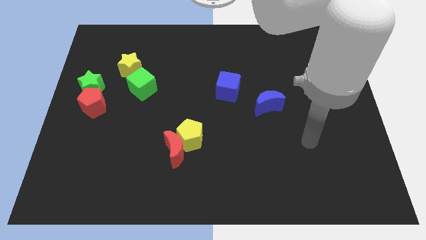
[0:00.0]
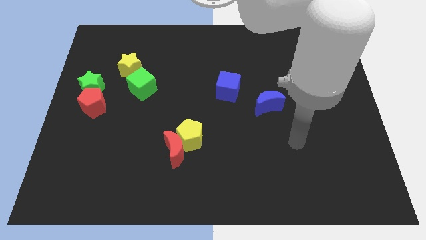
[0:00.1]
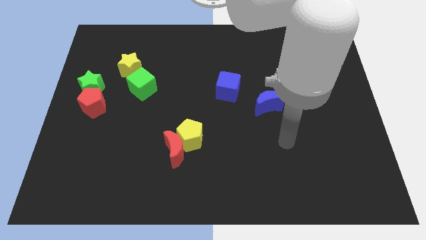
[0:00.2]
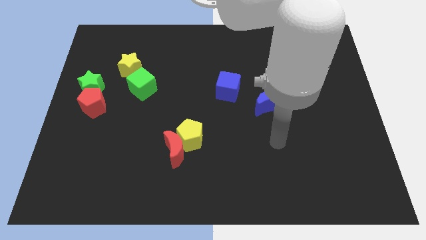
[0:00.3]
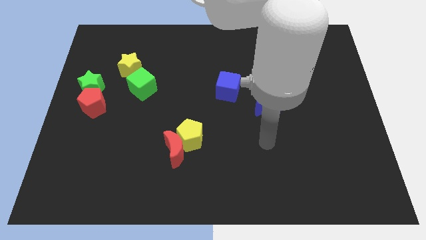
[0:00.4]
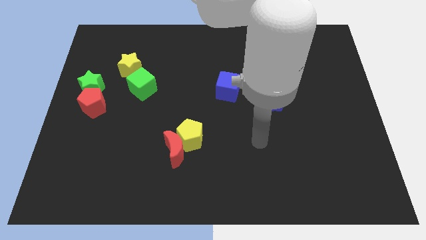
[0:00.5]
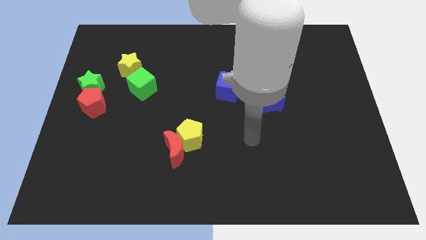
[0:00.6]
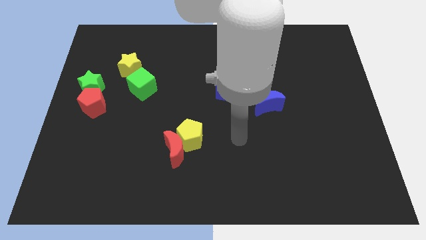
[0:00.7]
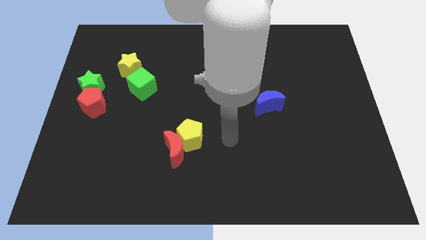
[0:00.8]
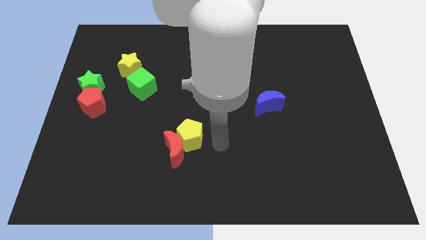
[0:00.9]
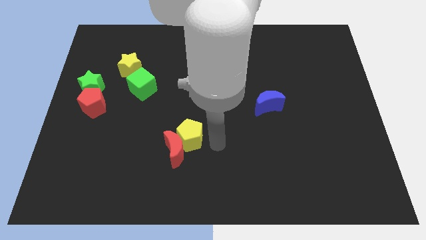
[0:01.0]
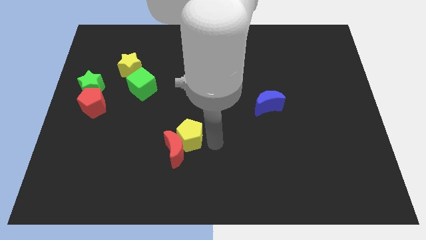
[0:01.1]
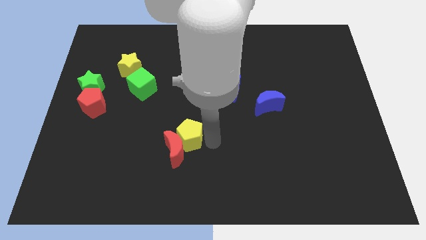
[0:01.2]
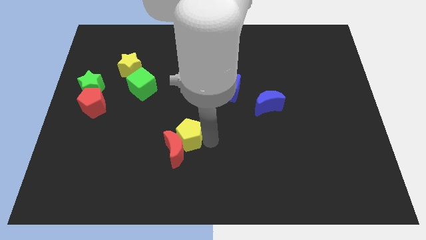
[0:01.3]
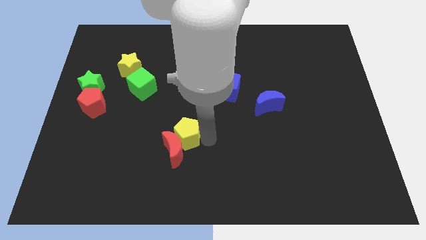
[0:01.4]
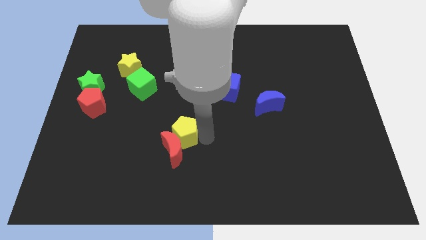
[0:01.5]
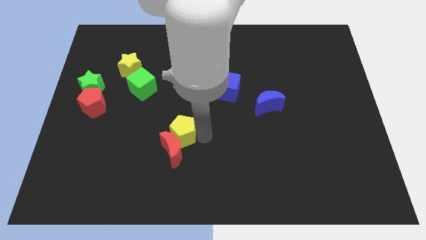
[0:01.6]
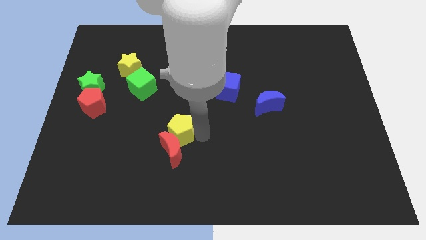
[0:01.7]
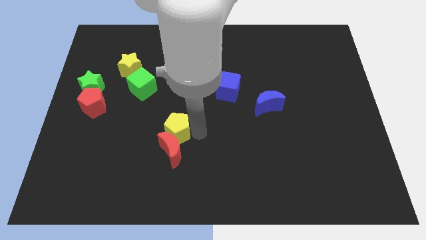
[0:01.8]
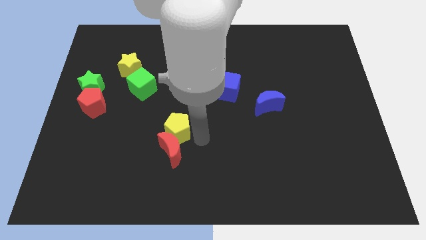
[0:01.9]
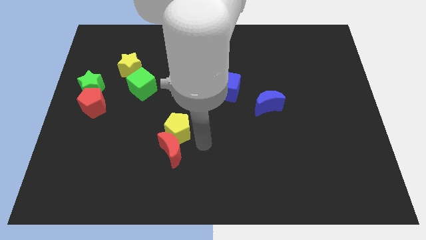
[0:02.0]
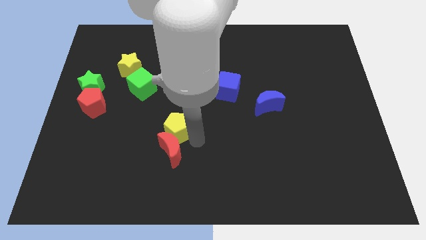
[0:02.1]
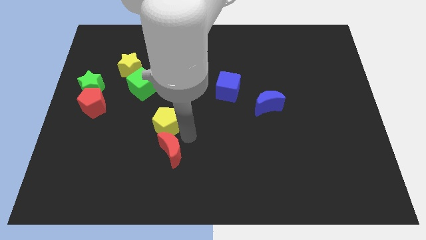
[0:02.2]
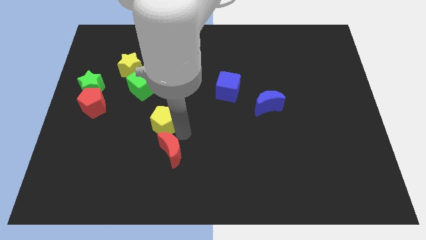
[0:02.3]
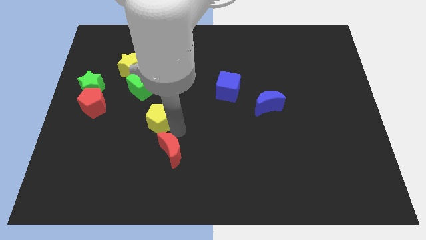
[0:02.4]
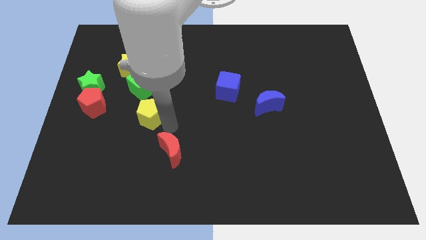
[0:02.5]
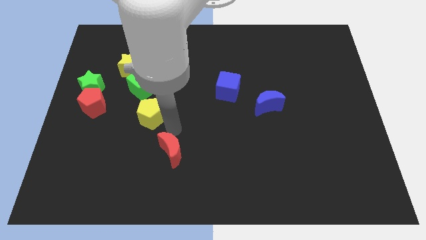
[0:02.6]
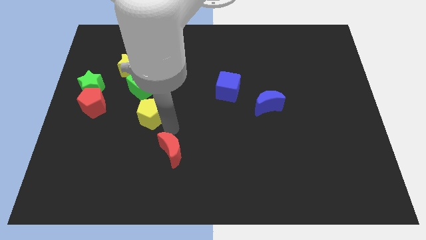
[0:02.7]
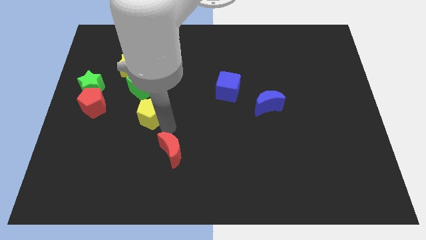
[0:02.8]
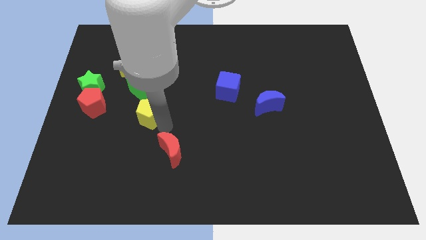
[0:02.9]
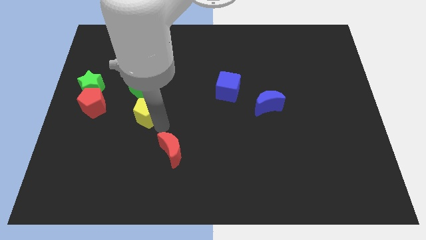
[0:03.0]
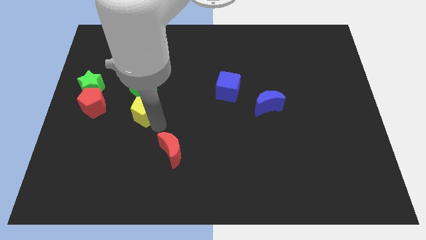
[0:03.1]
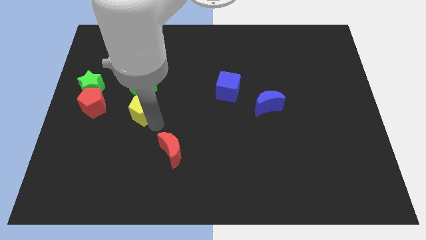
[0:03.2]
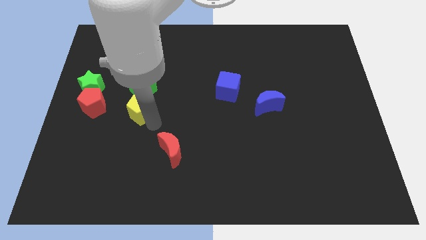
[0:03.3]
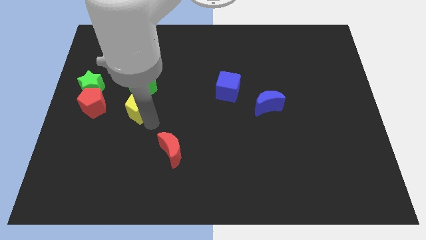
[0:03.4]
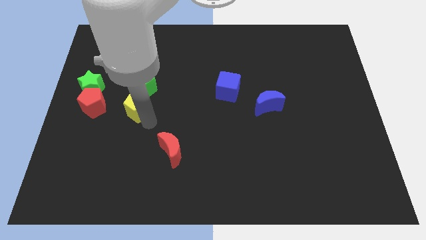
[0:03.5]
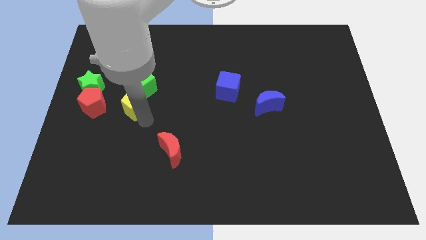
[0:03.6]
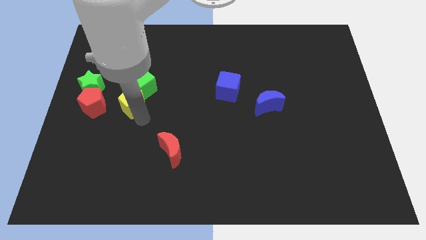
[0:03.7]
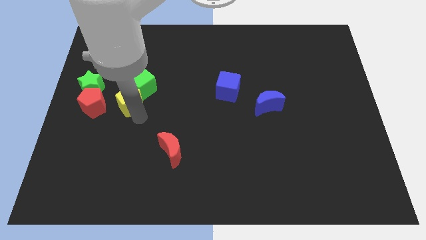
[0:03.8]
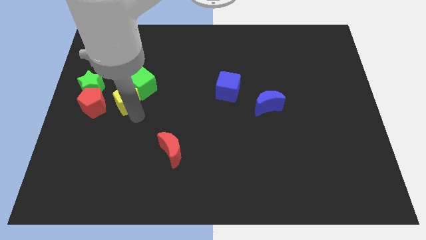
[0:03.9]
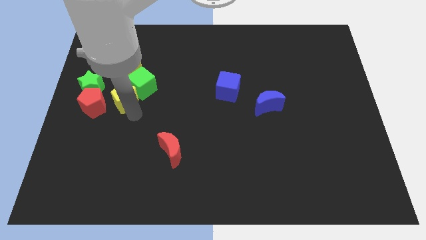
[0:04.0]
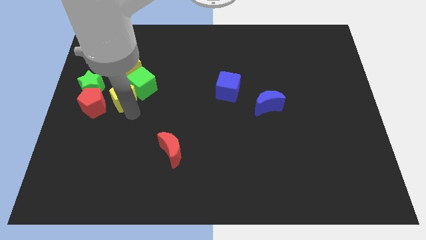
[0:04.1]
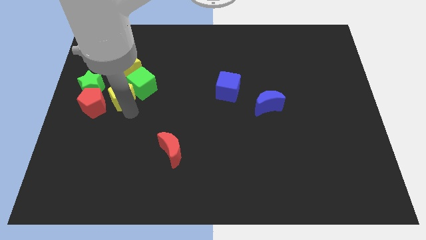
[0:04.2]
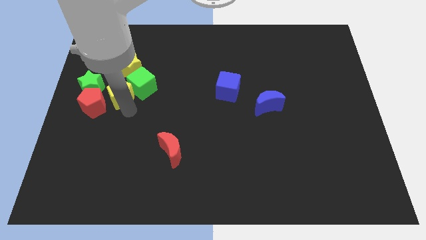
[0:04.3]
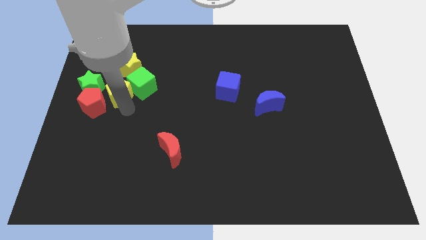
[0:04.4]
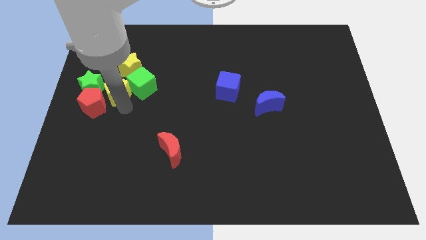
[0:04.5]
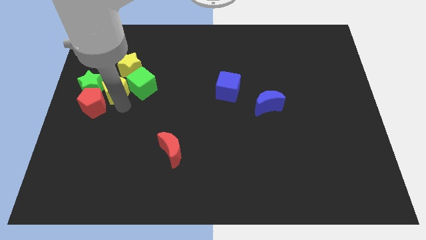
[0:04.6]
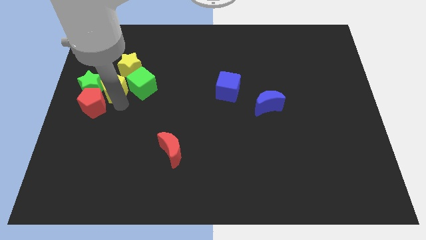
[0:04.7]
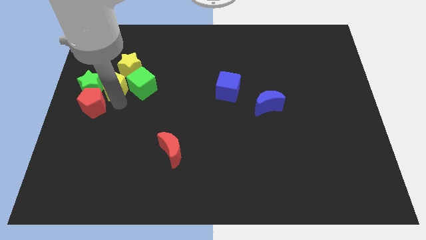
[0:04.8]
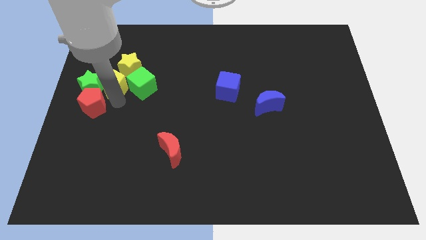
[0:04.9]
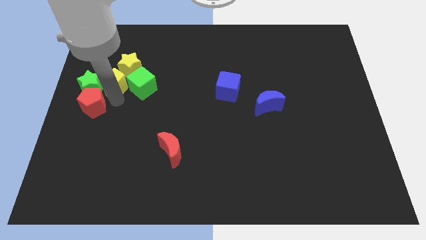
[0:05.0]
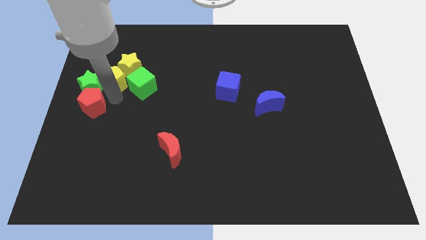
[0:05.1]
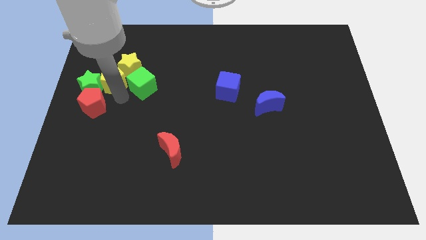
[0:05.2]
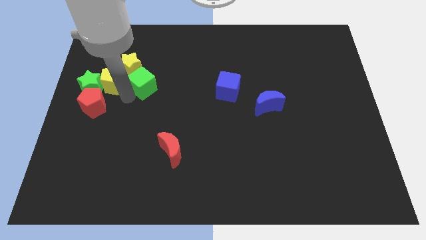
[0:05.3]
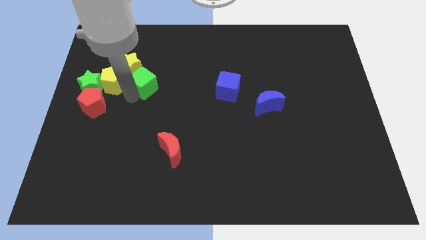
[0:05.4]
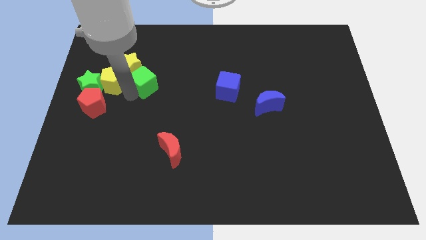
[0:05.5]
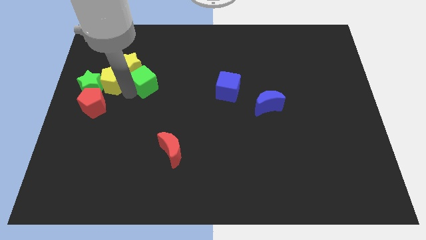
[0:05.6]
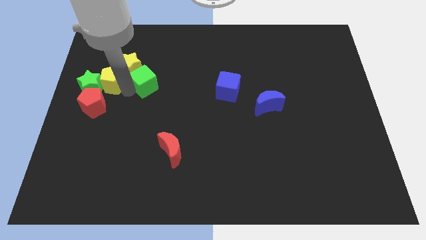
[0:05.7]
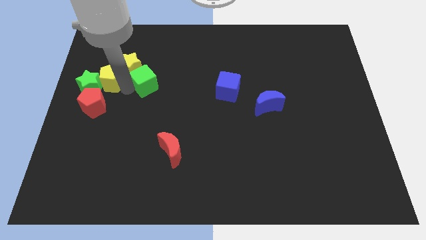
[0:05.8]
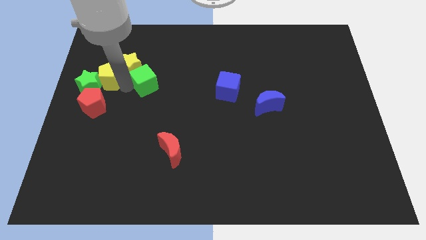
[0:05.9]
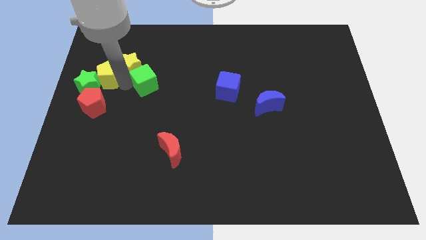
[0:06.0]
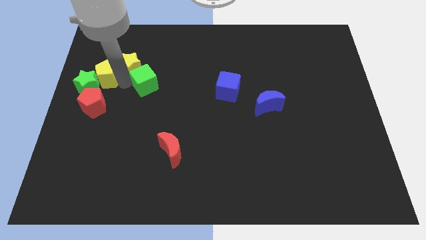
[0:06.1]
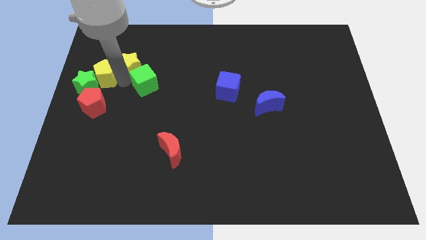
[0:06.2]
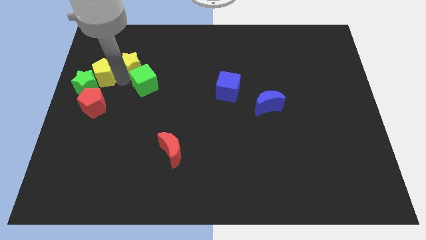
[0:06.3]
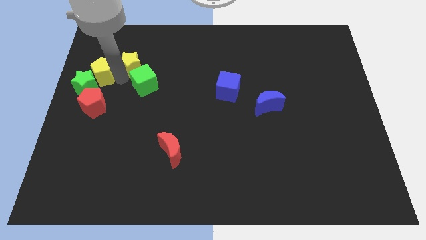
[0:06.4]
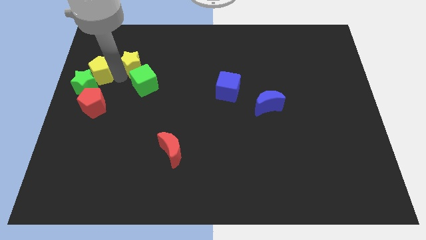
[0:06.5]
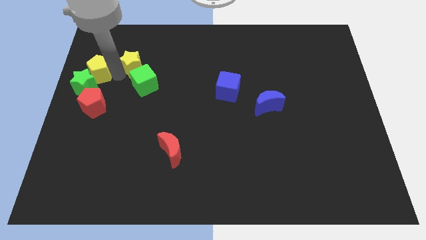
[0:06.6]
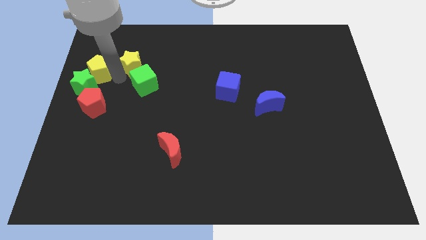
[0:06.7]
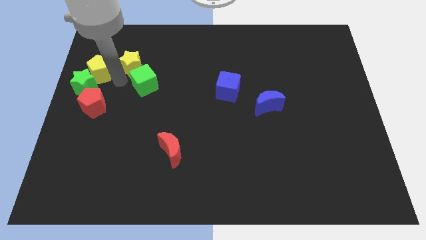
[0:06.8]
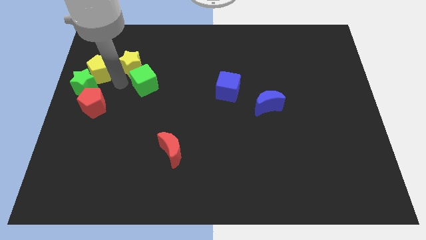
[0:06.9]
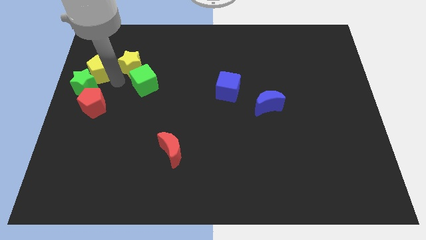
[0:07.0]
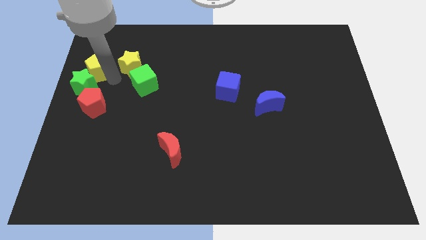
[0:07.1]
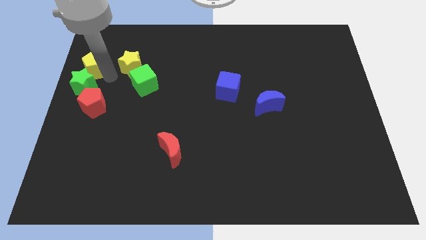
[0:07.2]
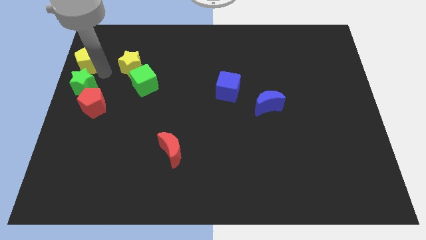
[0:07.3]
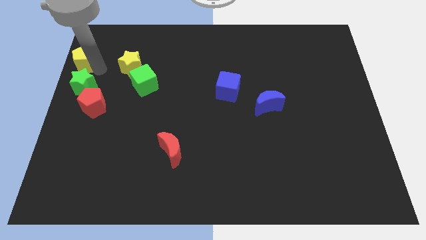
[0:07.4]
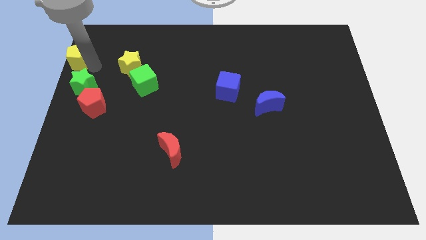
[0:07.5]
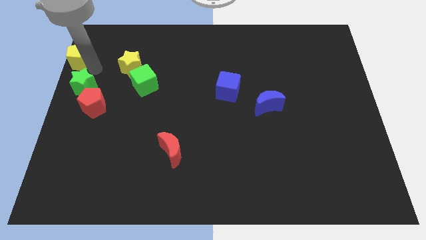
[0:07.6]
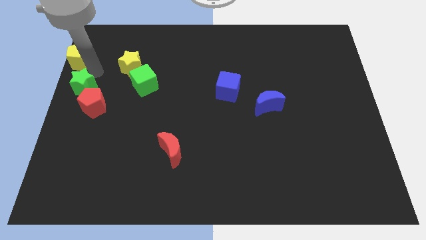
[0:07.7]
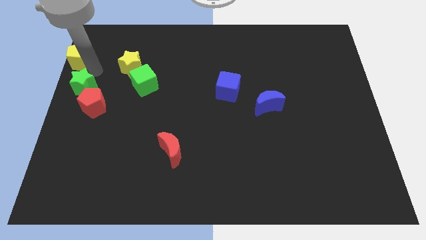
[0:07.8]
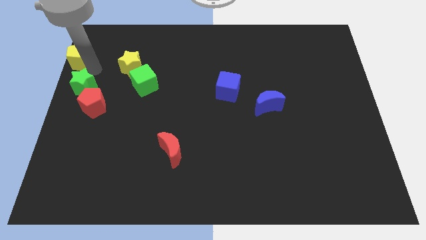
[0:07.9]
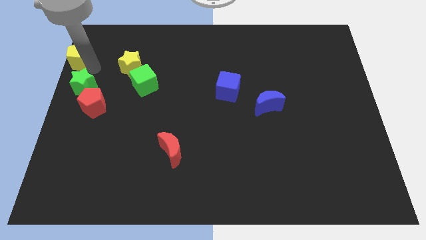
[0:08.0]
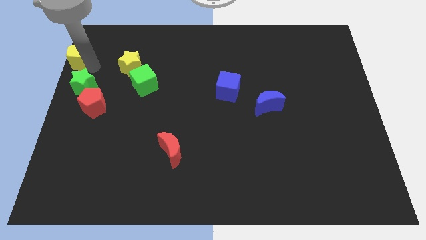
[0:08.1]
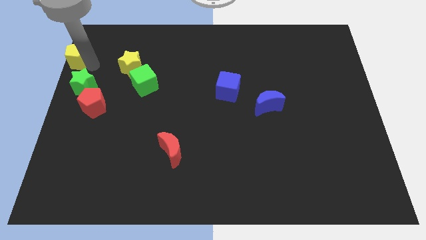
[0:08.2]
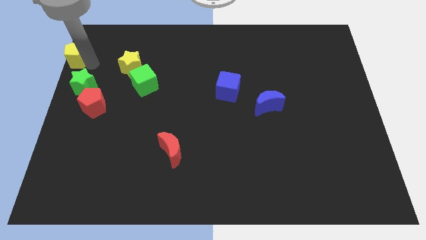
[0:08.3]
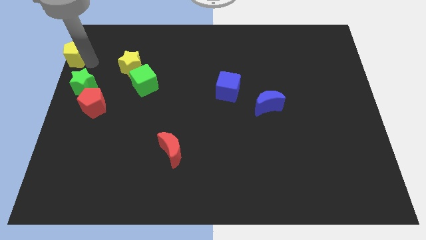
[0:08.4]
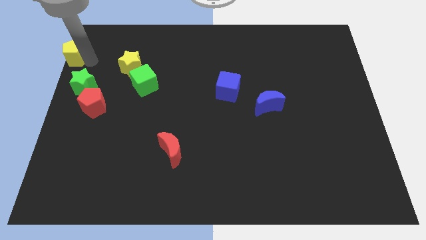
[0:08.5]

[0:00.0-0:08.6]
push the yellow pentagon to the top left corner
